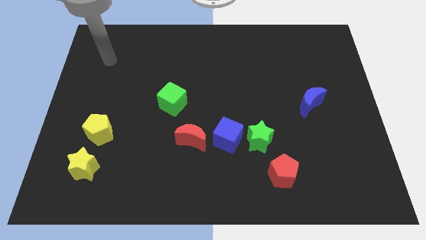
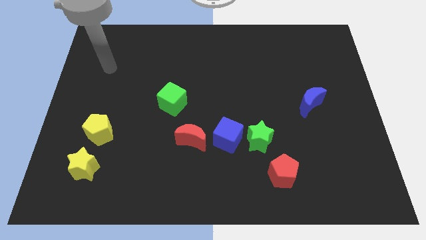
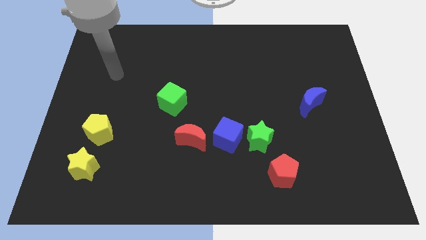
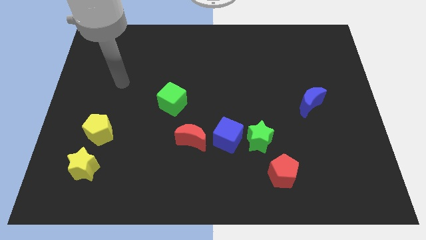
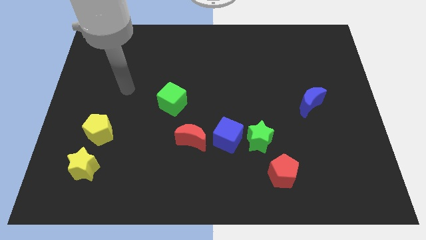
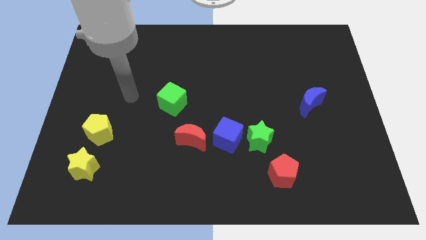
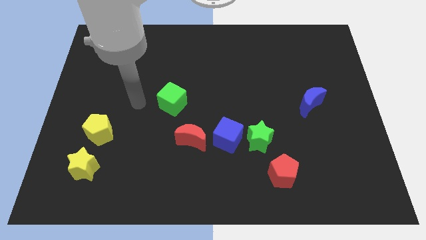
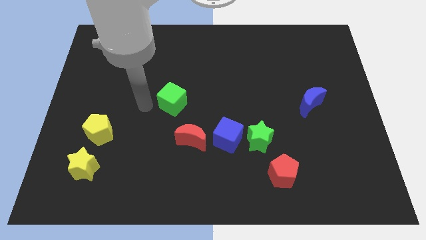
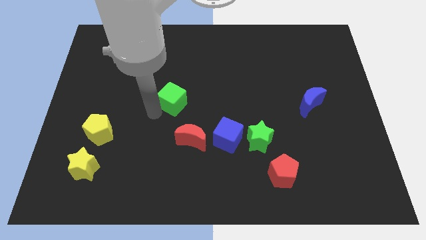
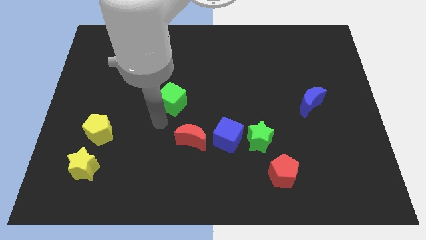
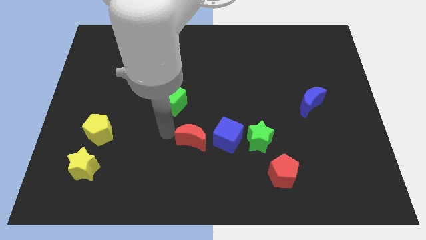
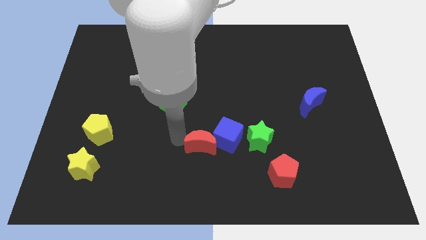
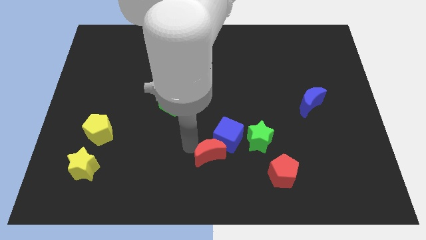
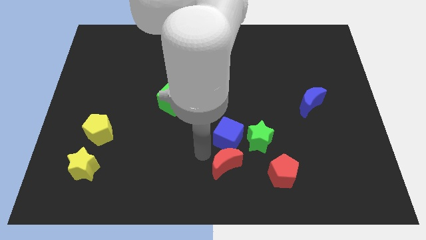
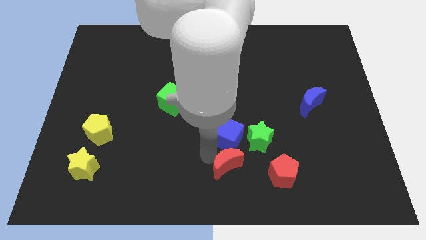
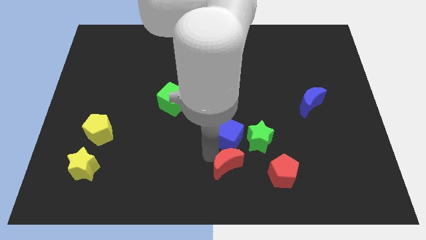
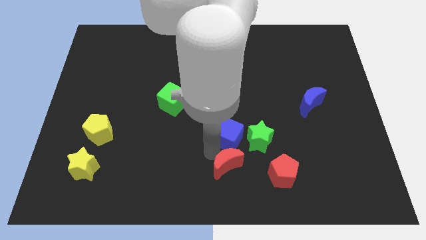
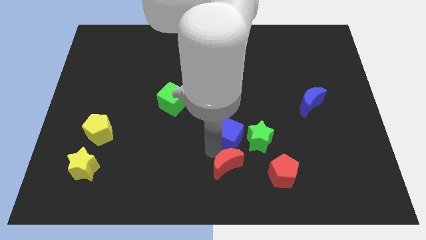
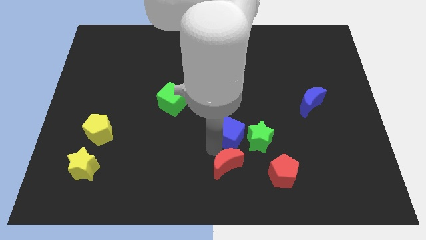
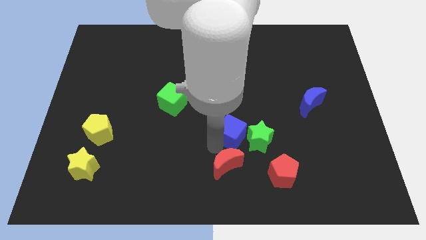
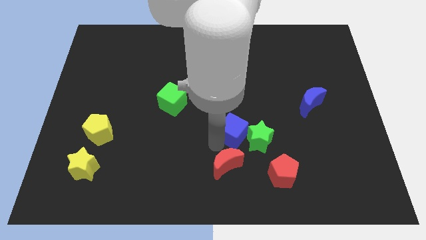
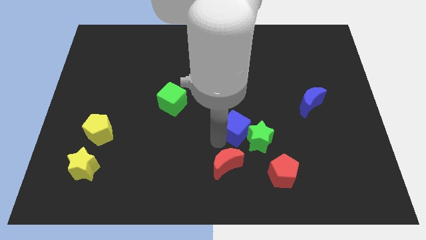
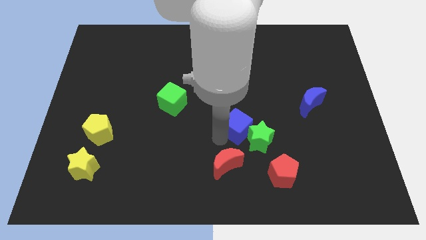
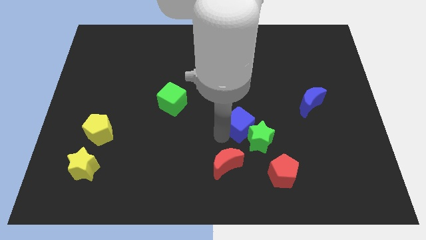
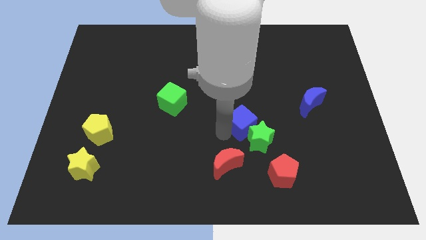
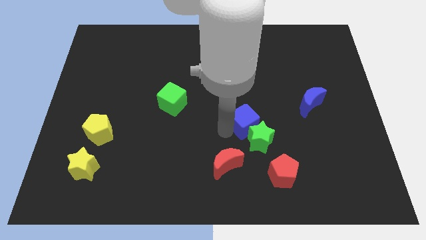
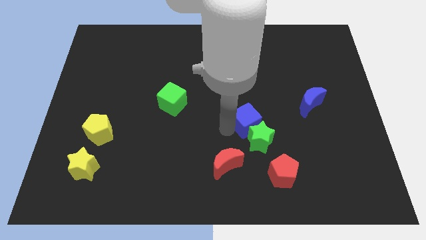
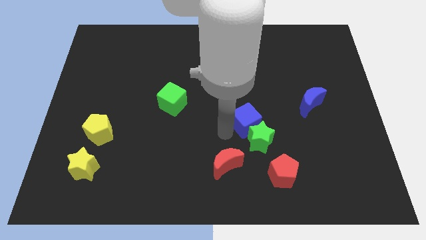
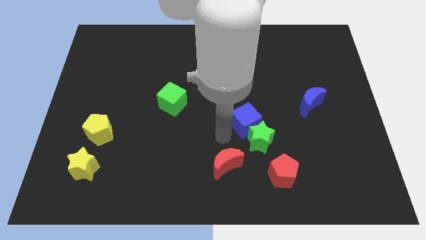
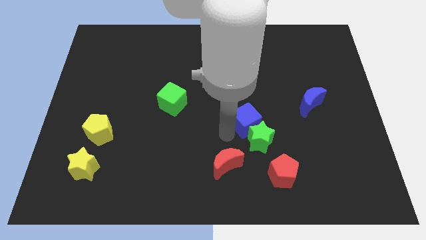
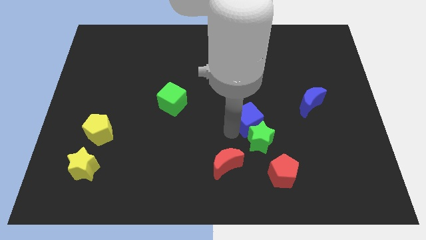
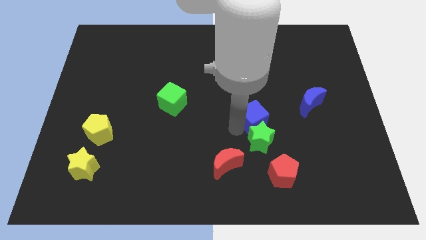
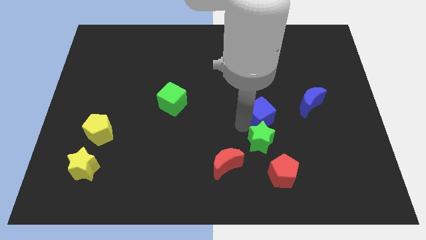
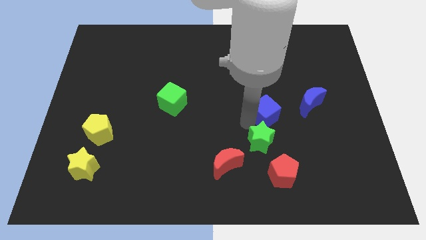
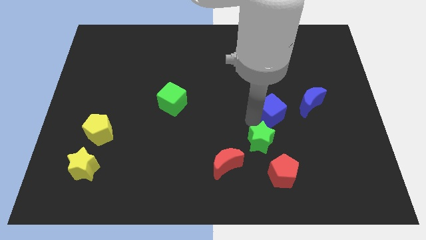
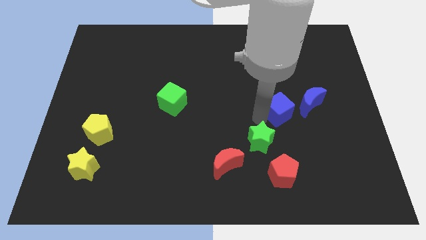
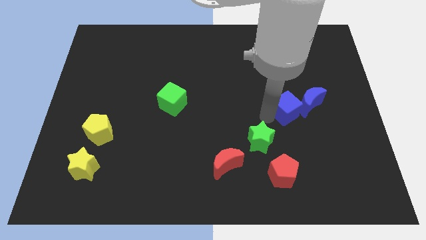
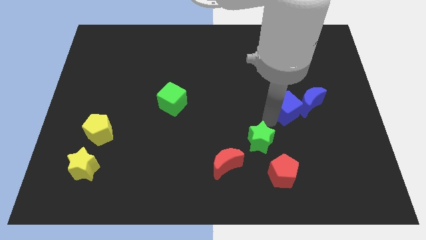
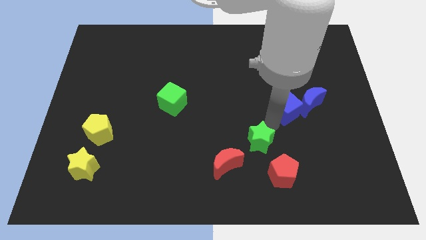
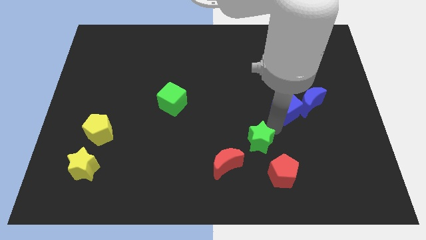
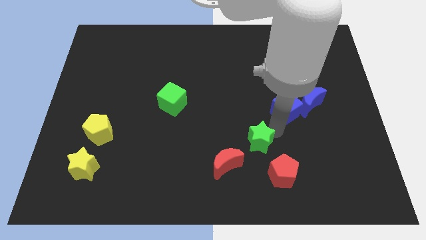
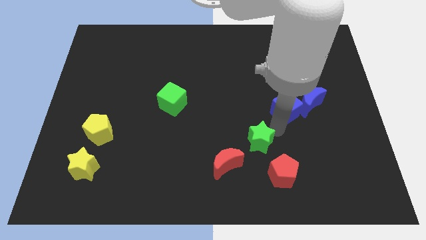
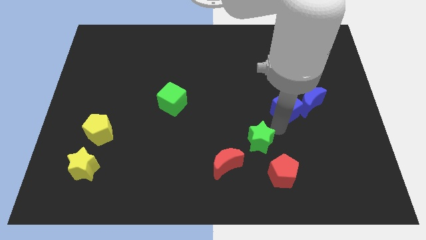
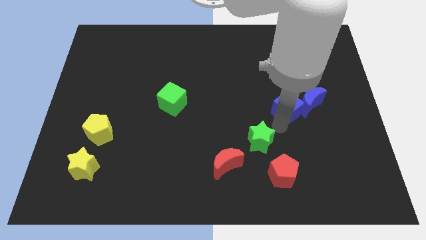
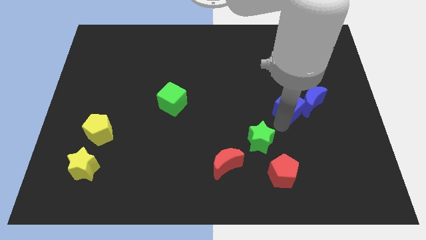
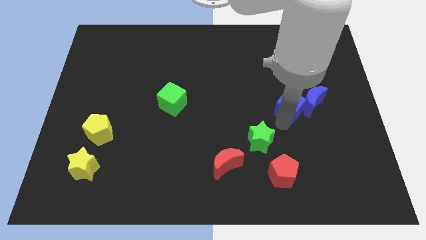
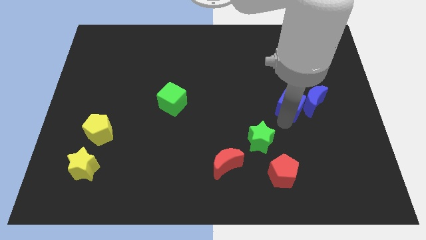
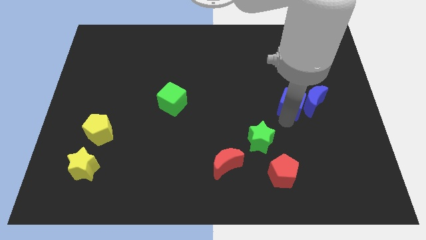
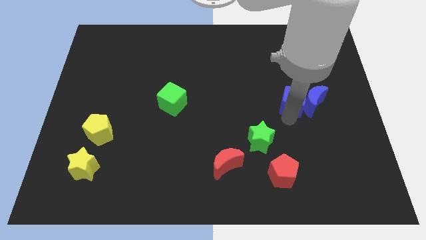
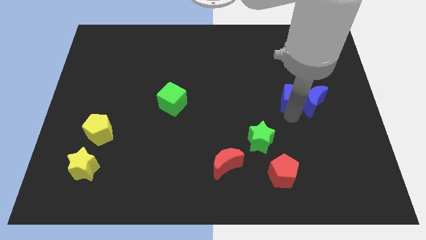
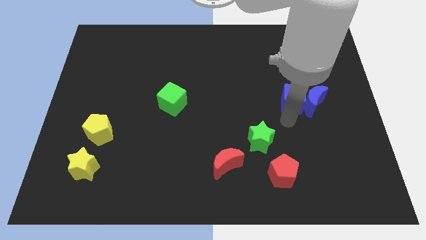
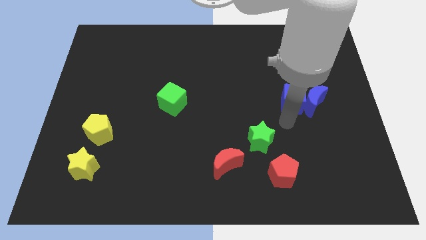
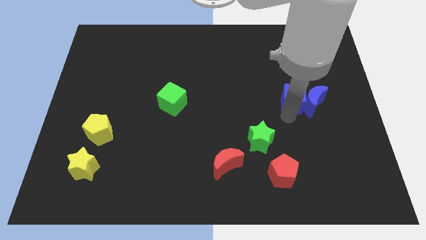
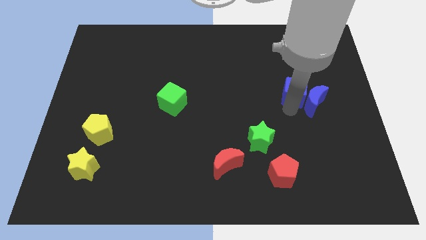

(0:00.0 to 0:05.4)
move the blue cube up and to the right

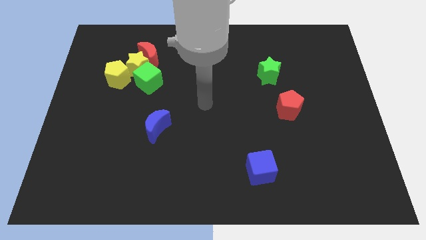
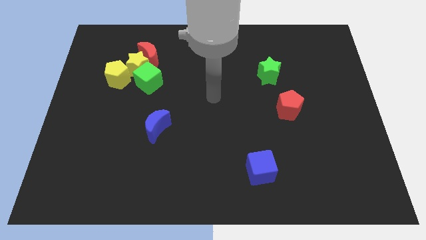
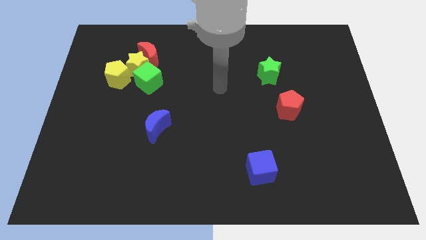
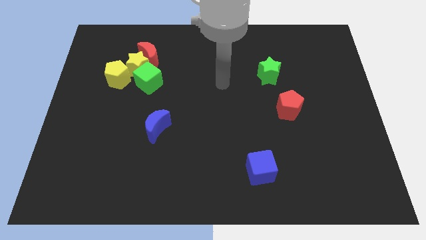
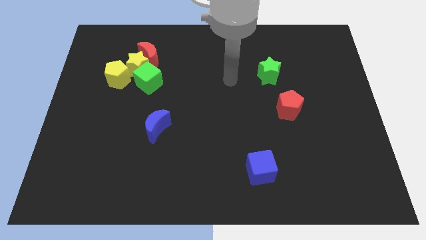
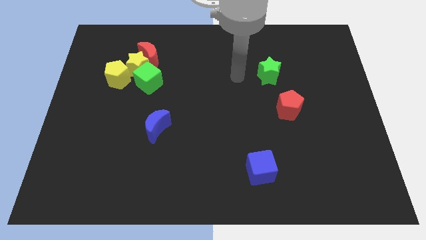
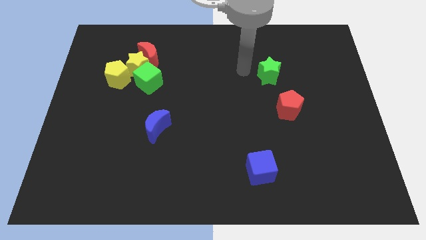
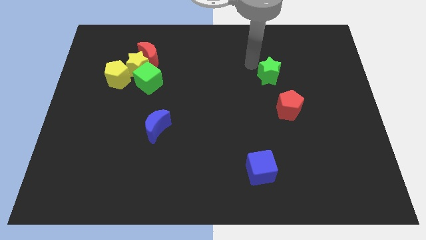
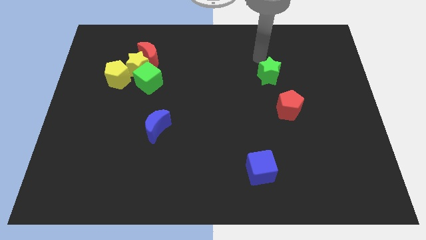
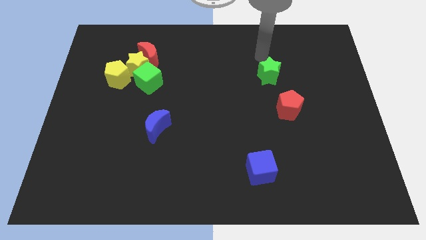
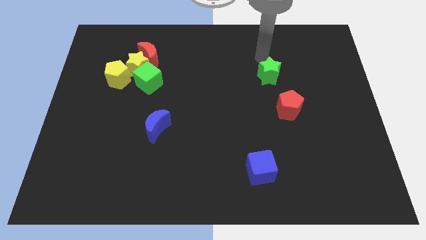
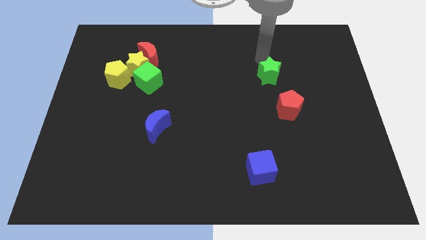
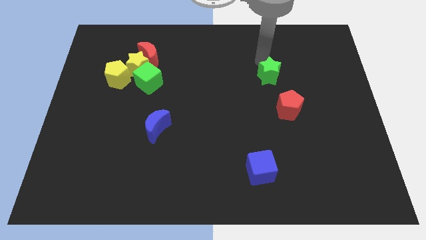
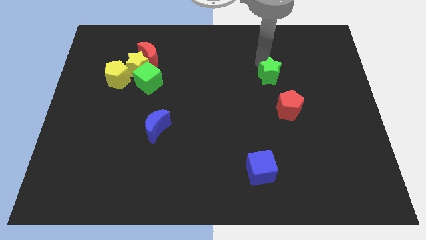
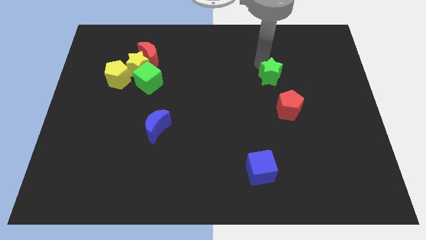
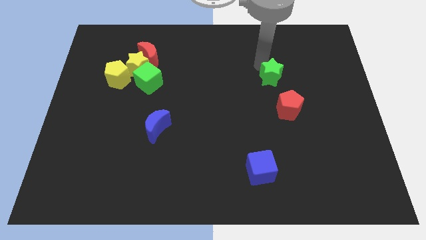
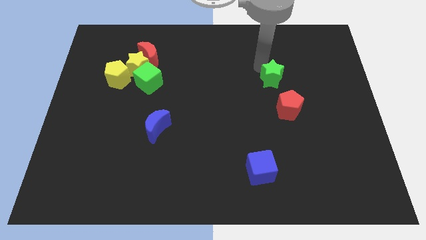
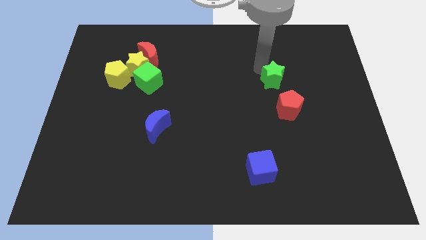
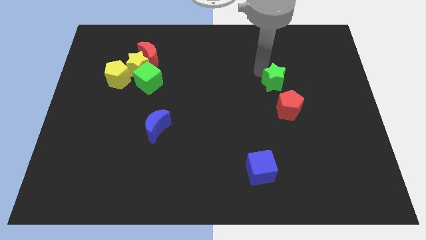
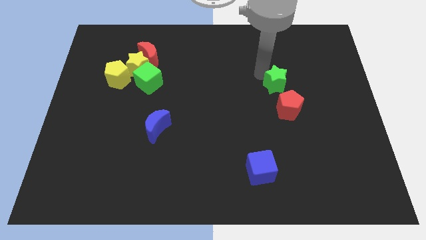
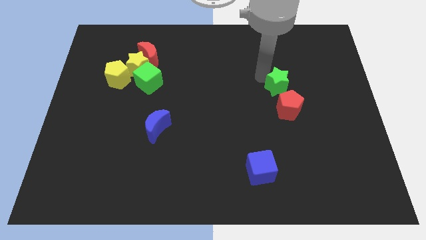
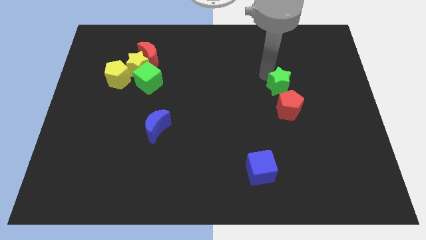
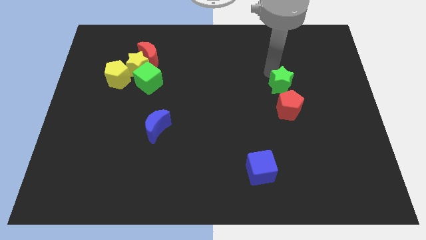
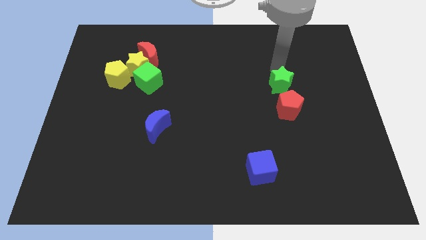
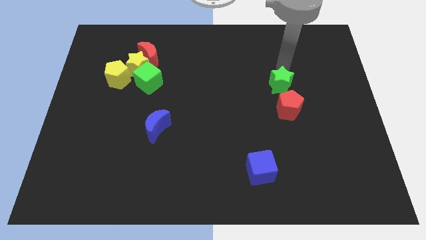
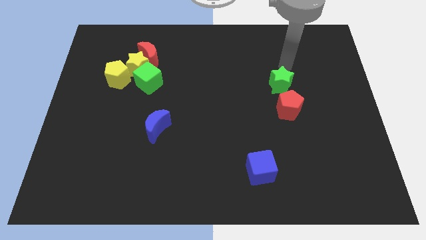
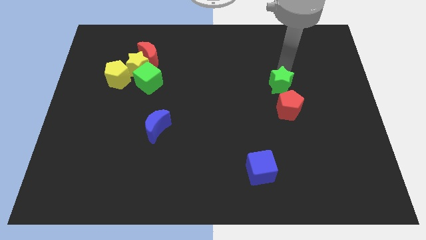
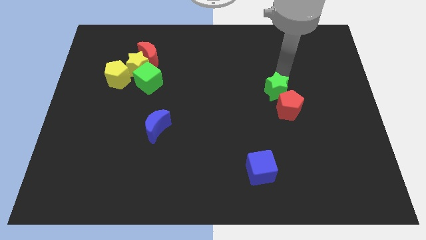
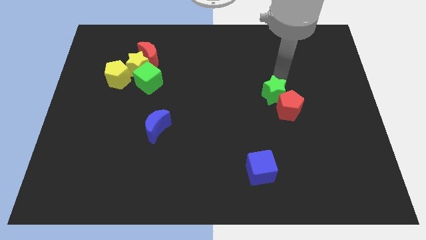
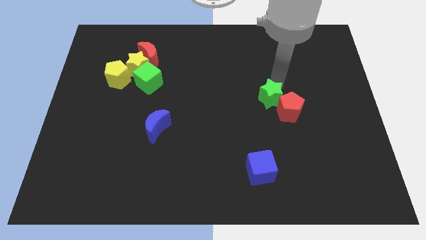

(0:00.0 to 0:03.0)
move the green star downwards a bit
